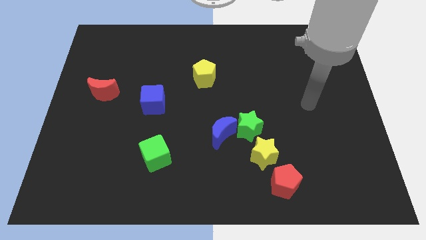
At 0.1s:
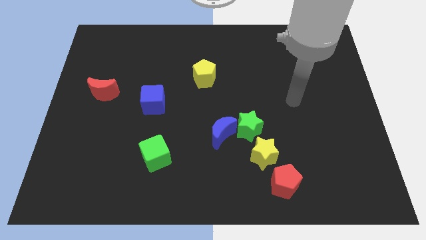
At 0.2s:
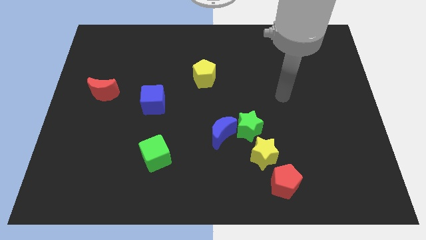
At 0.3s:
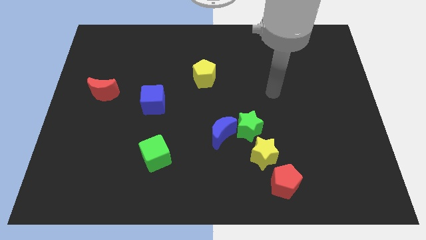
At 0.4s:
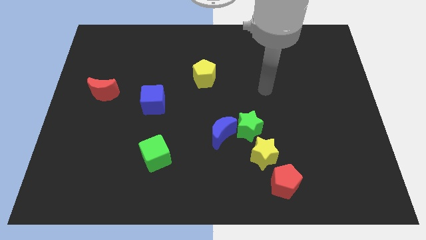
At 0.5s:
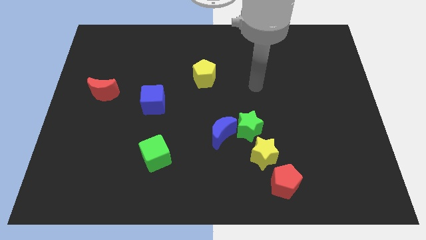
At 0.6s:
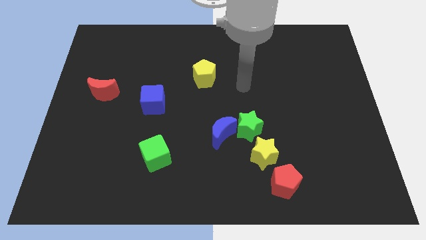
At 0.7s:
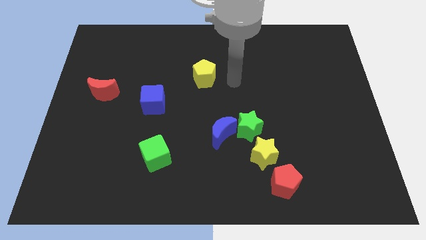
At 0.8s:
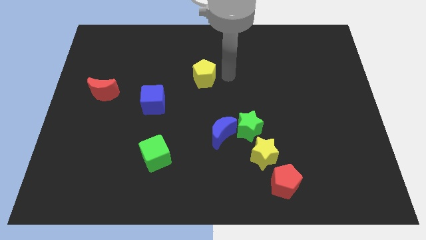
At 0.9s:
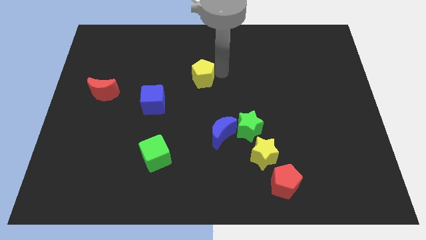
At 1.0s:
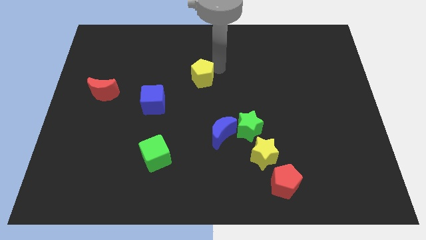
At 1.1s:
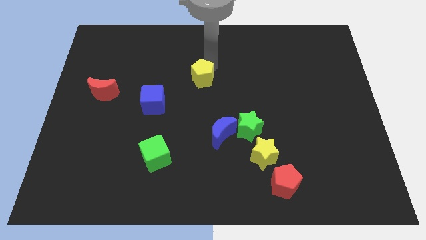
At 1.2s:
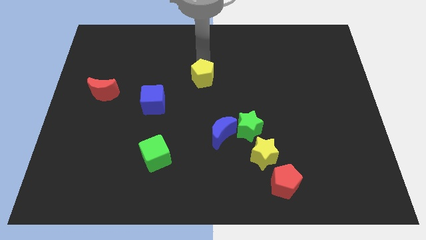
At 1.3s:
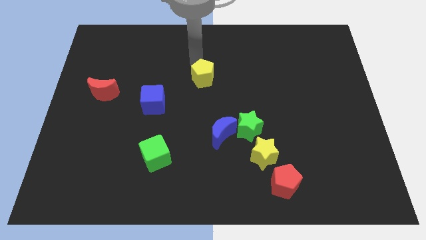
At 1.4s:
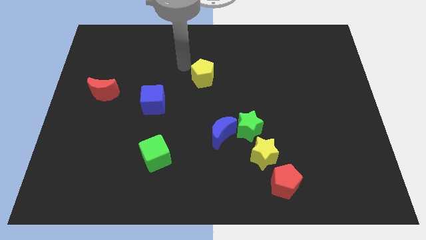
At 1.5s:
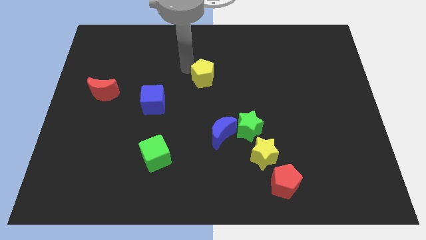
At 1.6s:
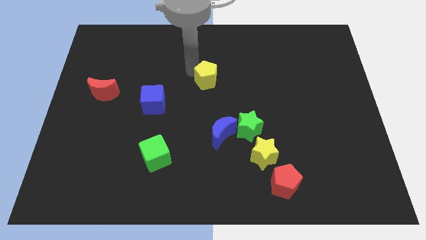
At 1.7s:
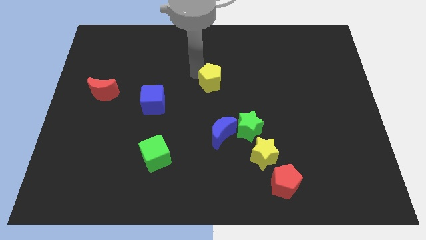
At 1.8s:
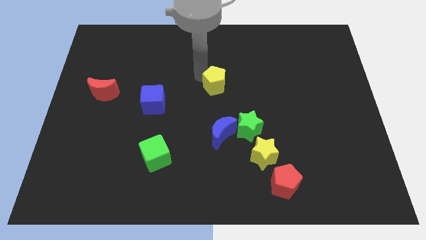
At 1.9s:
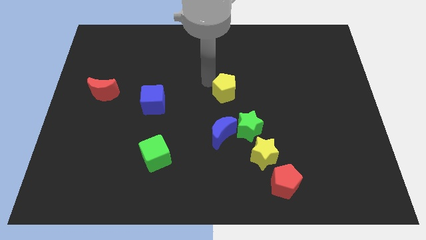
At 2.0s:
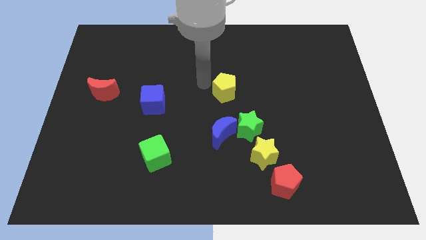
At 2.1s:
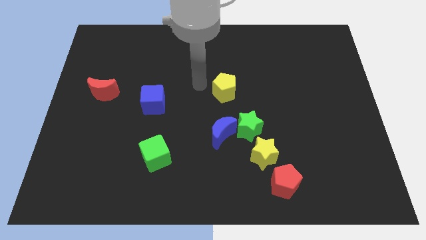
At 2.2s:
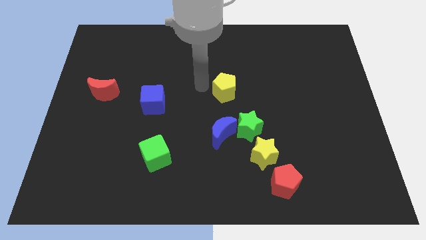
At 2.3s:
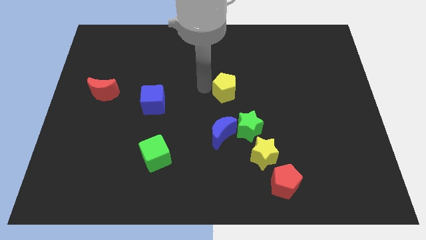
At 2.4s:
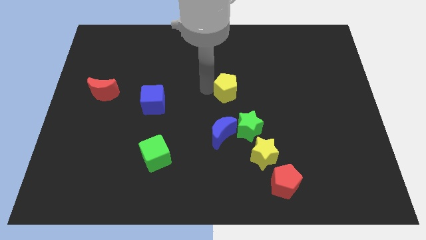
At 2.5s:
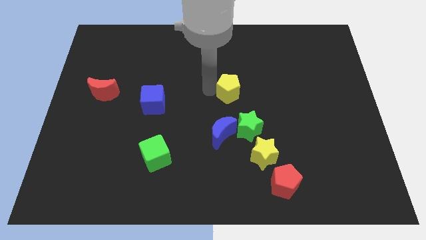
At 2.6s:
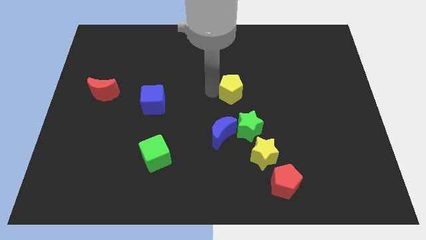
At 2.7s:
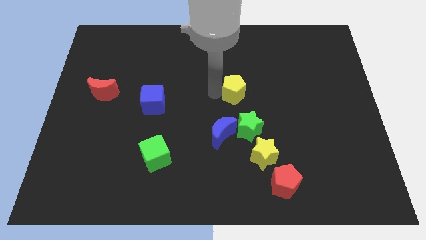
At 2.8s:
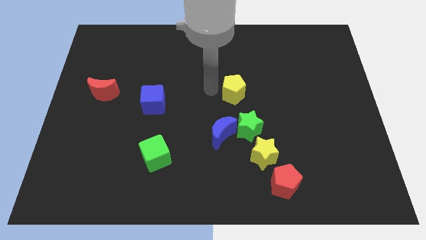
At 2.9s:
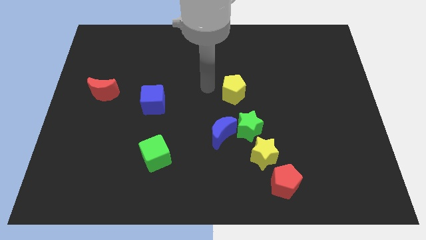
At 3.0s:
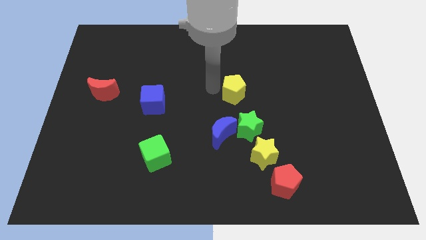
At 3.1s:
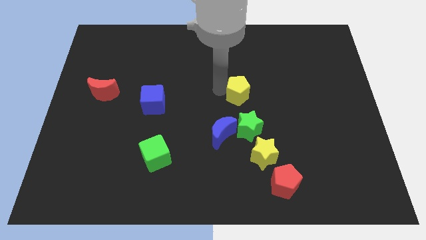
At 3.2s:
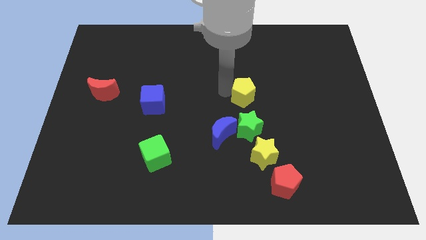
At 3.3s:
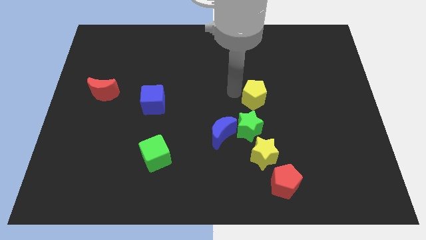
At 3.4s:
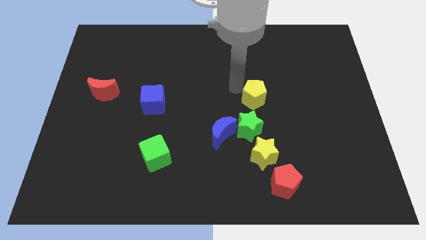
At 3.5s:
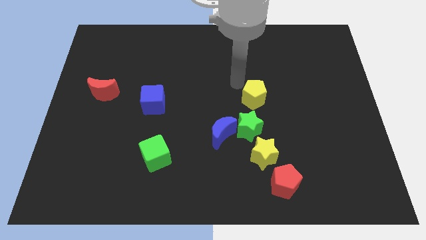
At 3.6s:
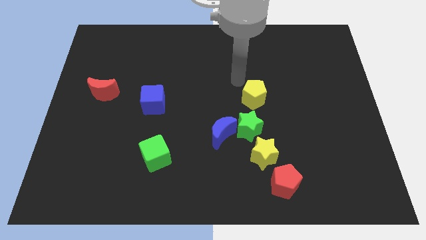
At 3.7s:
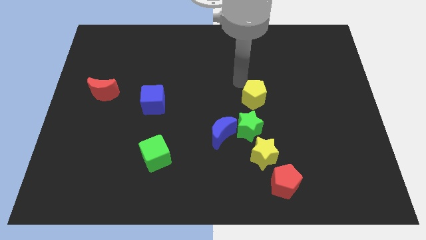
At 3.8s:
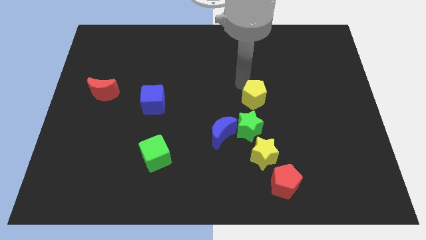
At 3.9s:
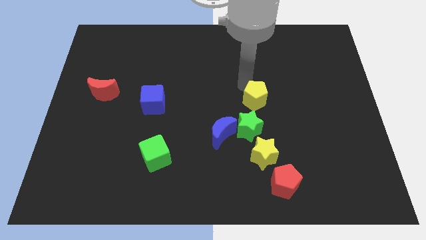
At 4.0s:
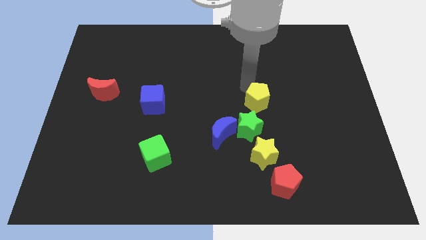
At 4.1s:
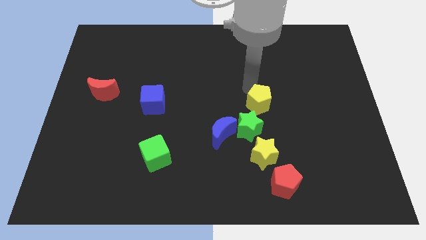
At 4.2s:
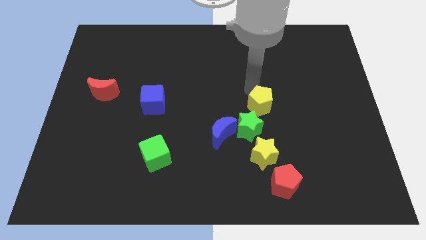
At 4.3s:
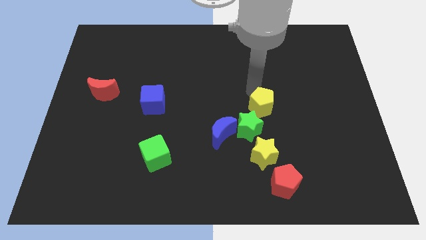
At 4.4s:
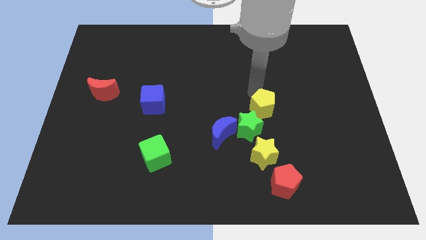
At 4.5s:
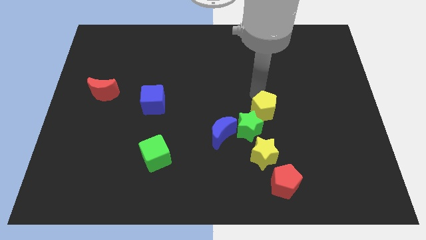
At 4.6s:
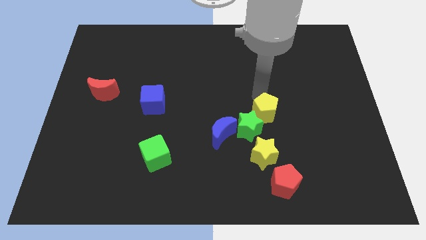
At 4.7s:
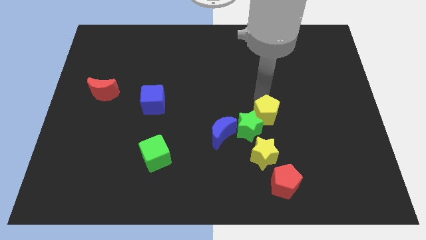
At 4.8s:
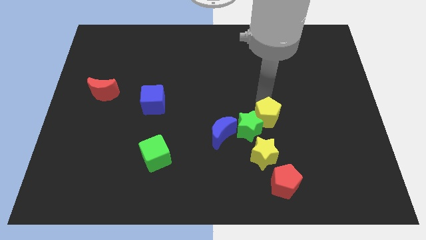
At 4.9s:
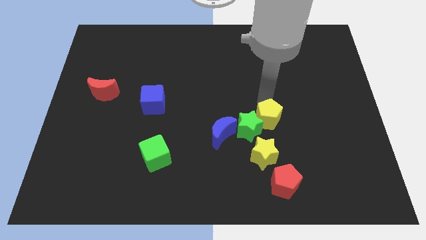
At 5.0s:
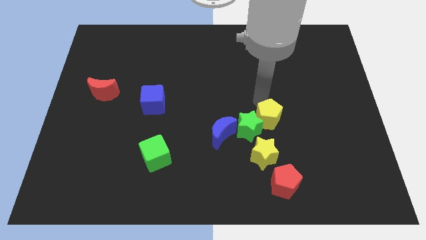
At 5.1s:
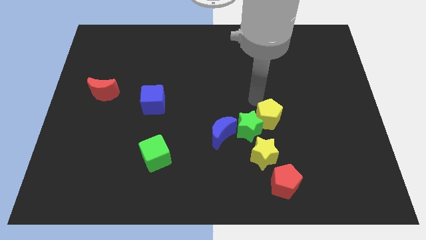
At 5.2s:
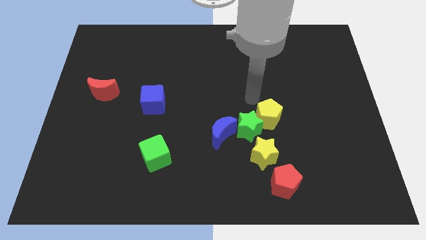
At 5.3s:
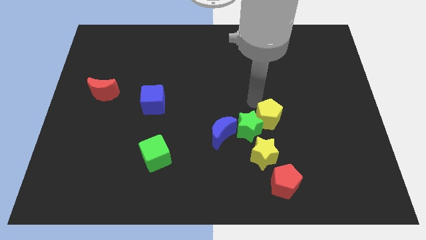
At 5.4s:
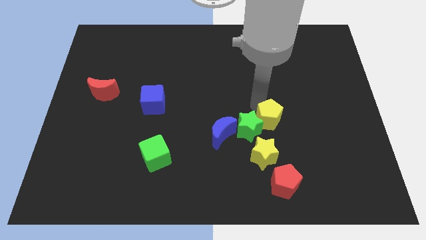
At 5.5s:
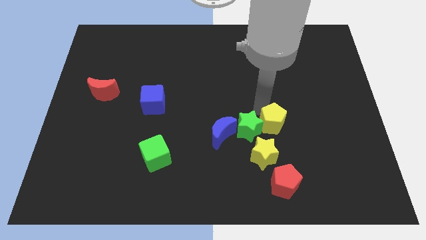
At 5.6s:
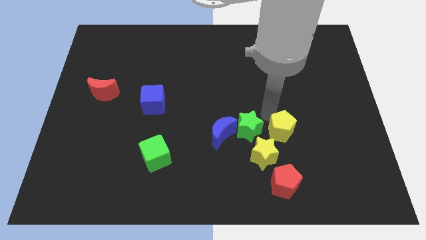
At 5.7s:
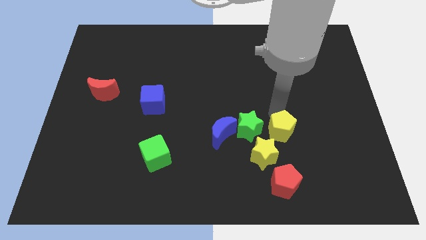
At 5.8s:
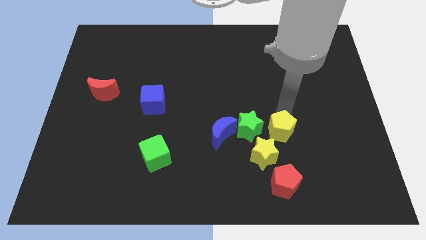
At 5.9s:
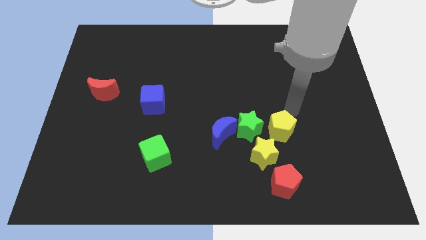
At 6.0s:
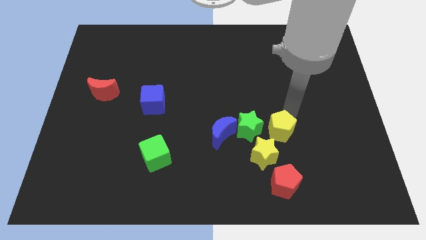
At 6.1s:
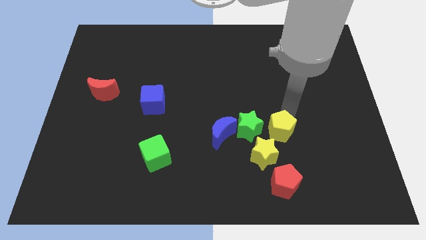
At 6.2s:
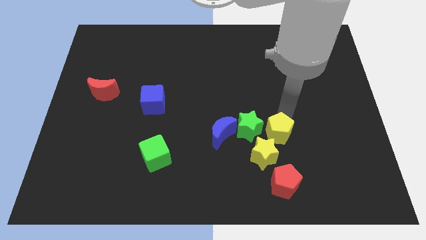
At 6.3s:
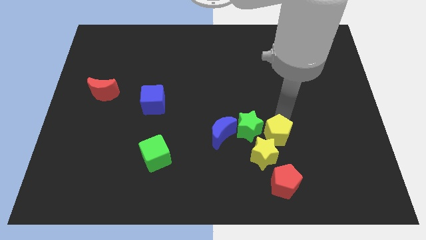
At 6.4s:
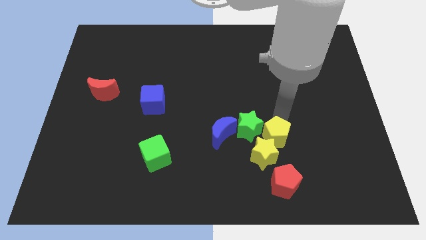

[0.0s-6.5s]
move the yellow pentagon close to the yellow star
